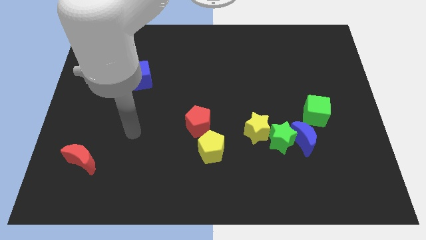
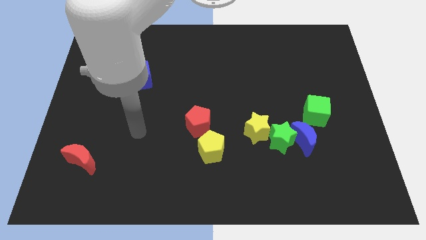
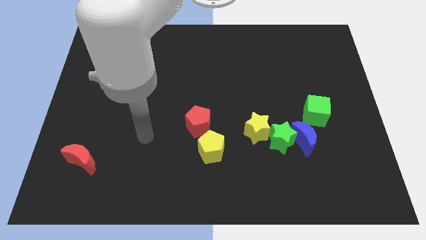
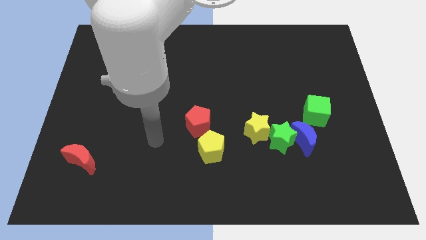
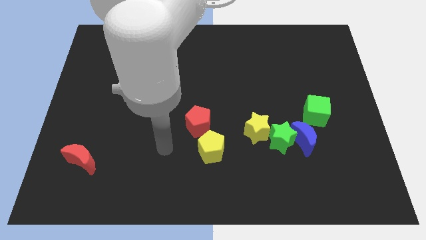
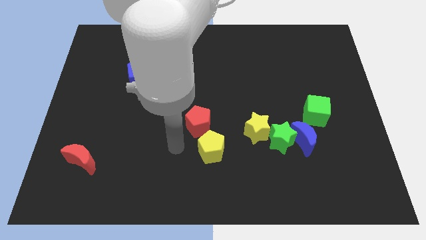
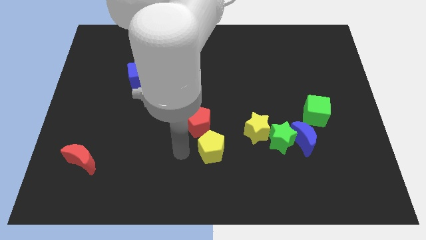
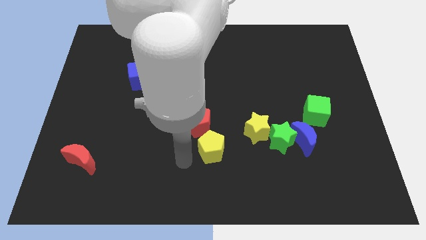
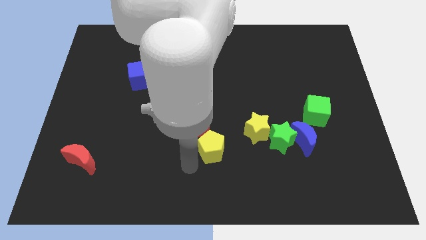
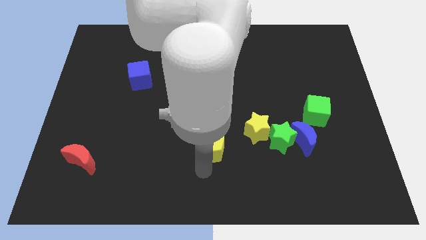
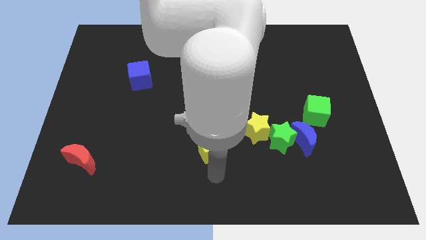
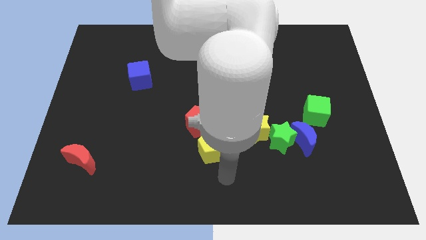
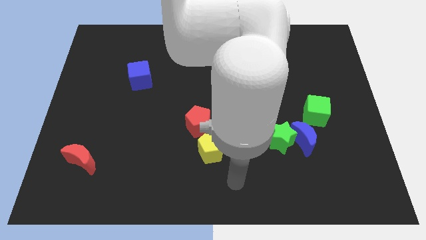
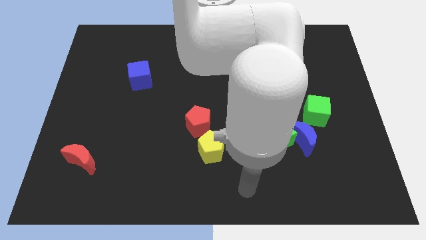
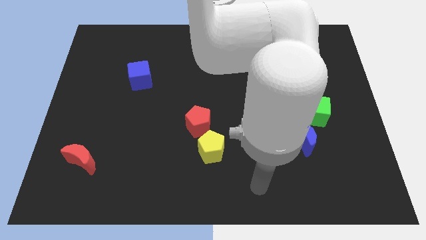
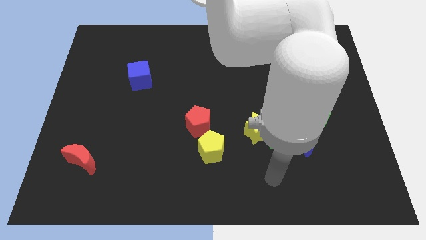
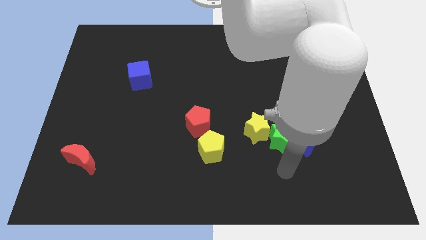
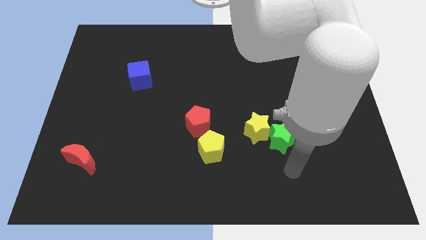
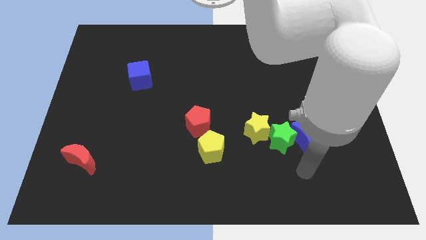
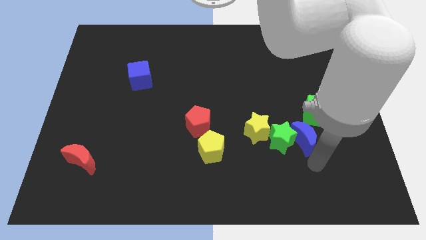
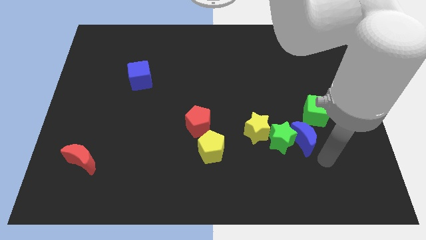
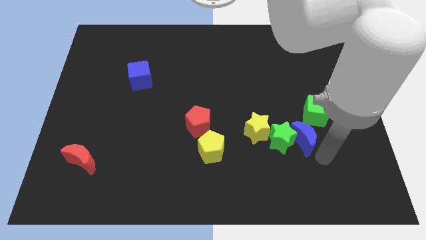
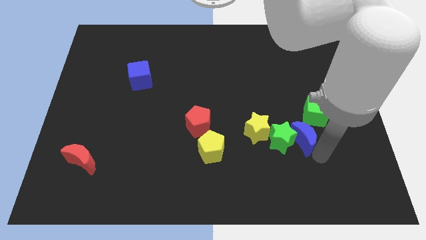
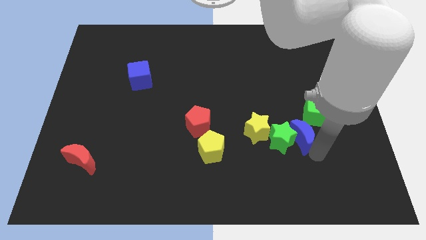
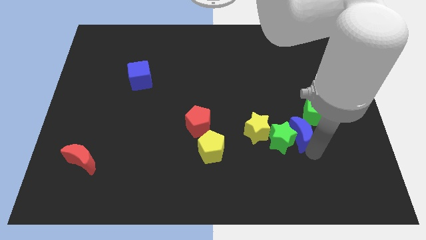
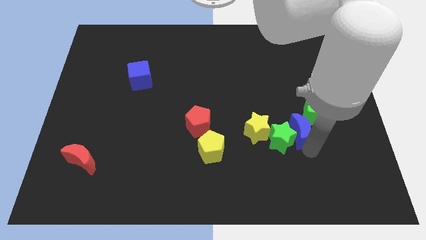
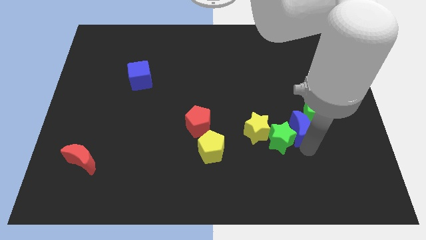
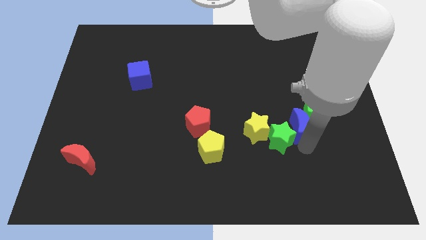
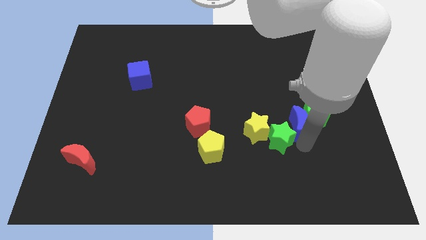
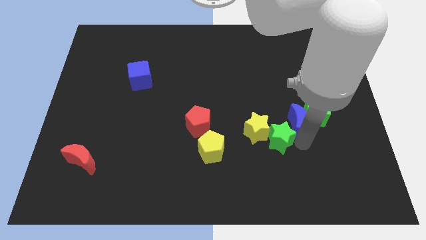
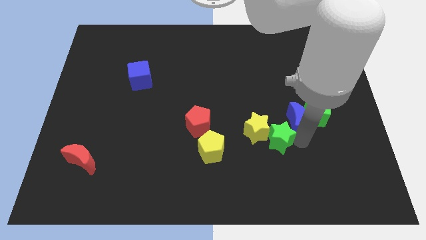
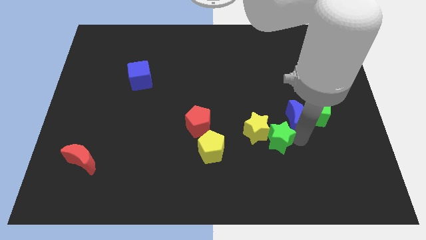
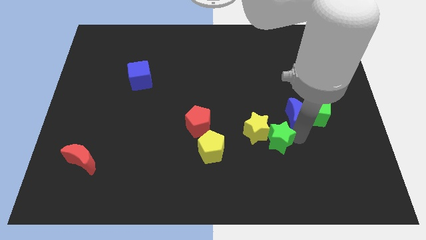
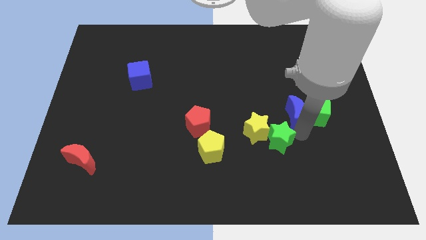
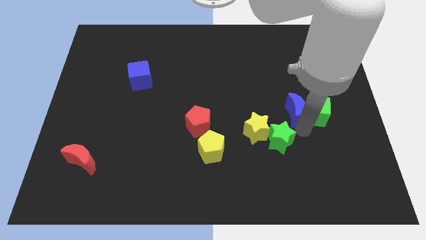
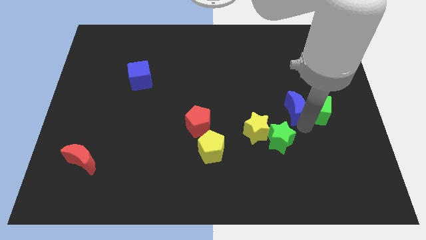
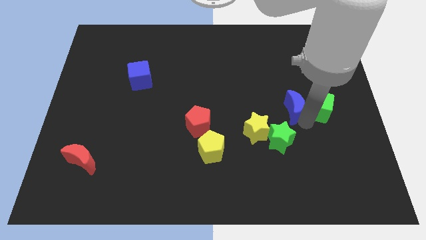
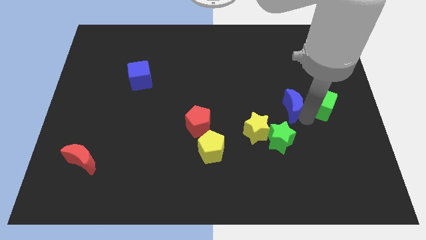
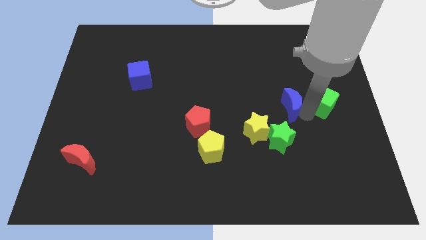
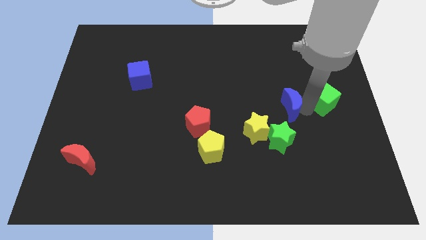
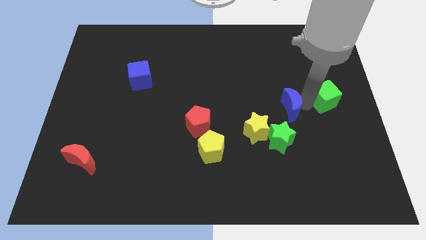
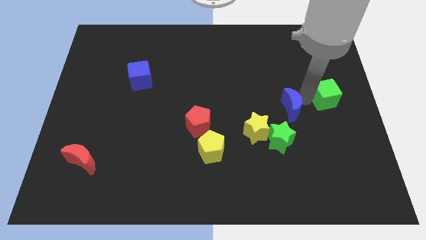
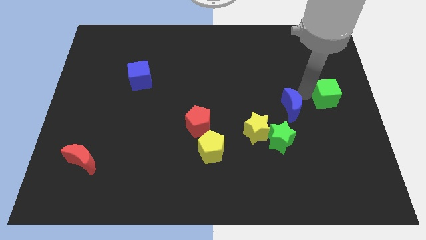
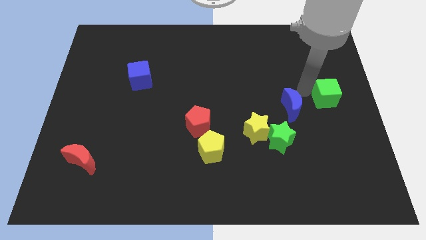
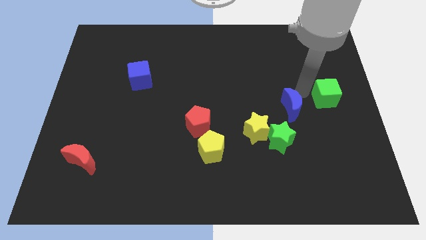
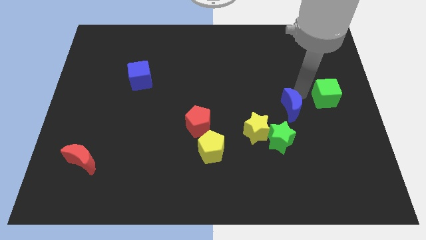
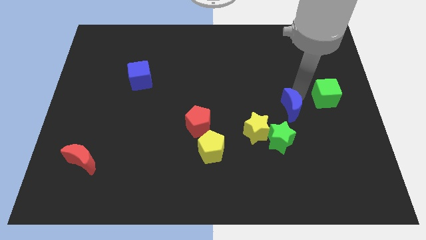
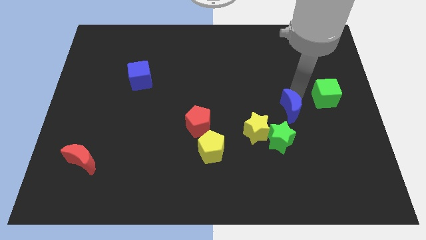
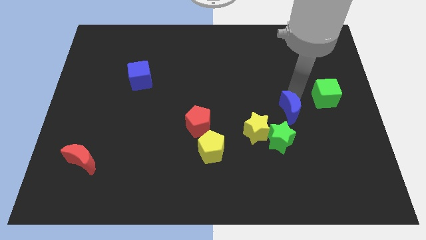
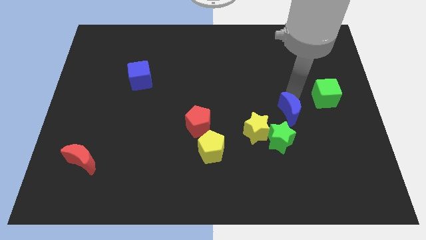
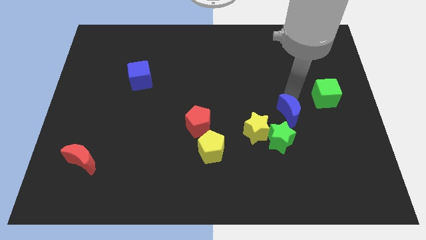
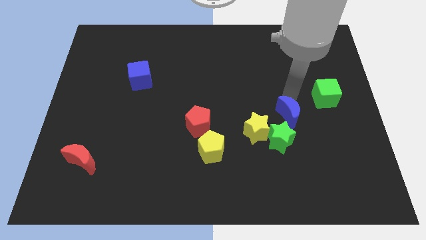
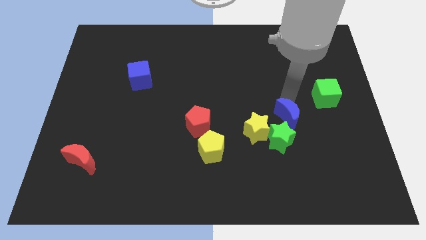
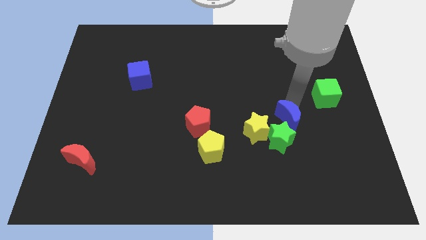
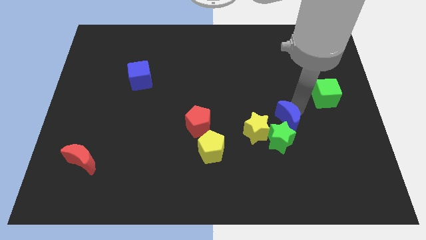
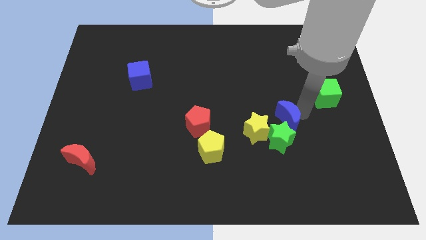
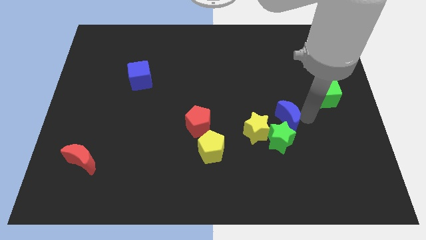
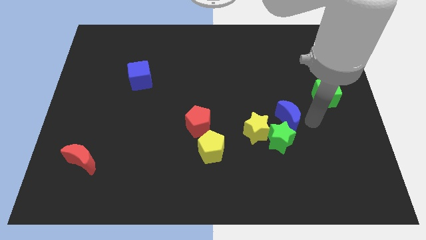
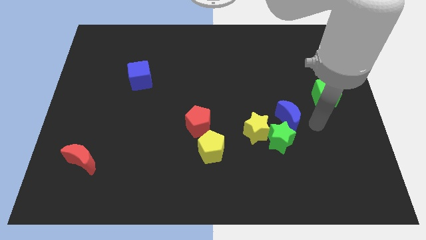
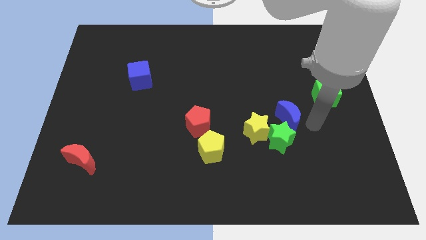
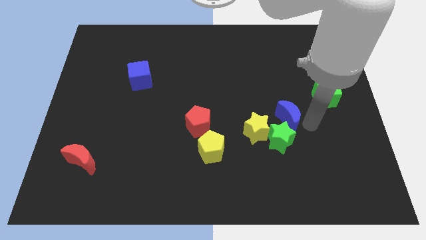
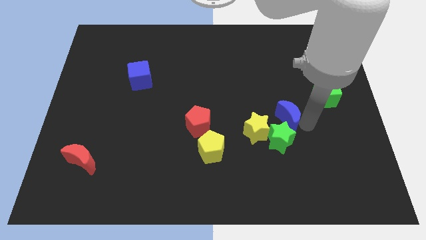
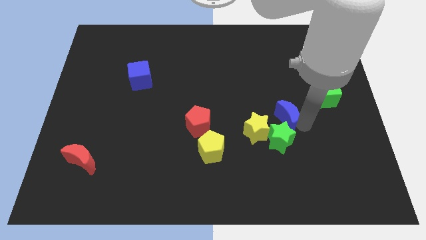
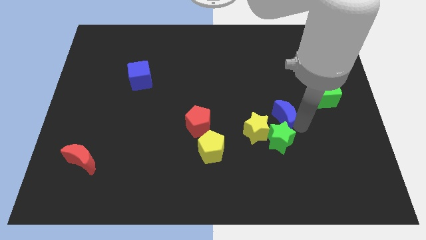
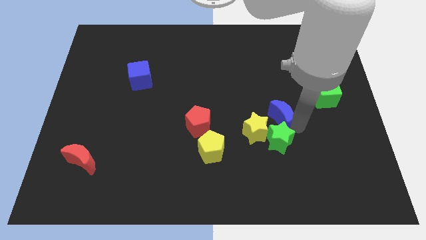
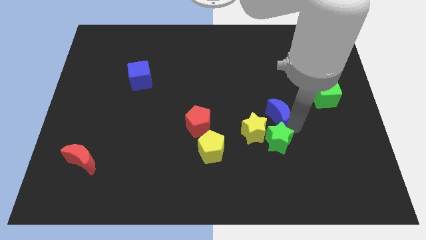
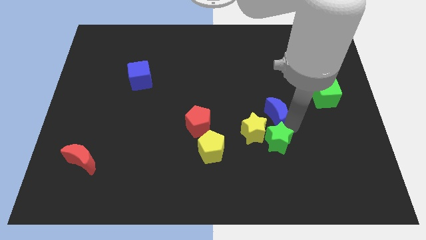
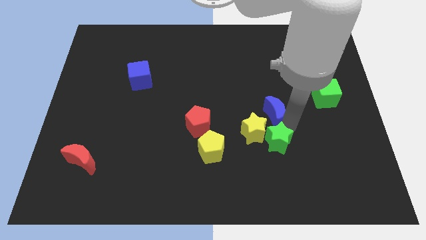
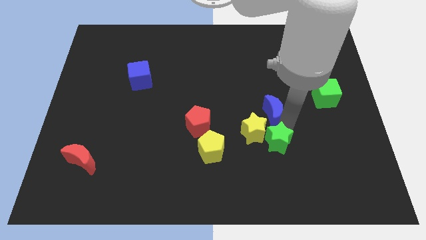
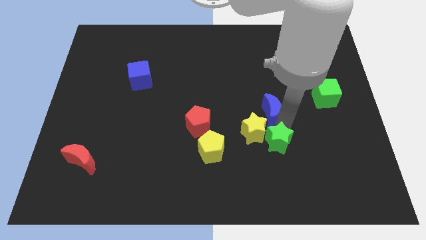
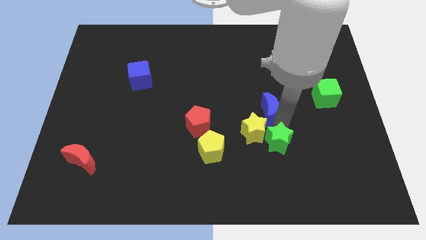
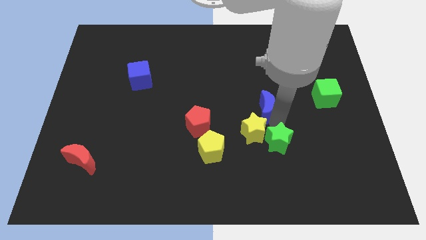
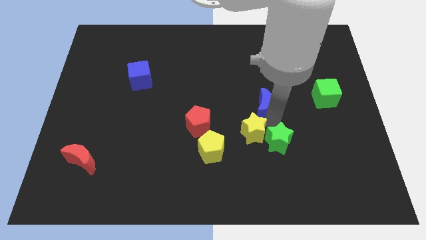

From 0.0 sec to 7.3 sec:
push the blue moon to the middle
